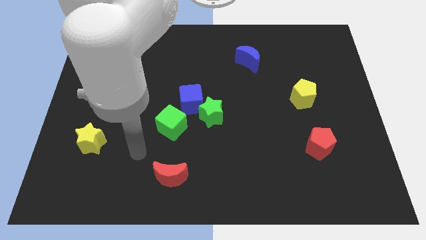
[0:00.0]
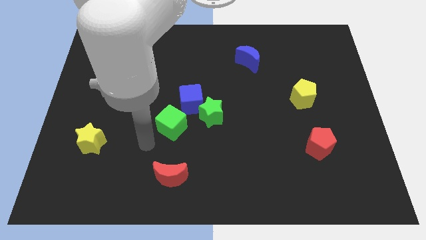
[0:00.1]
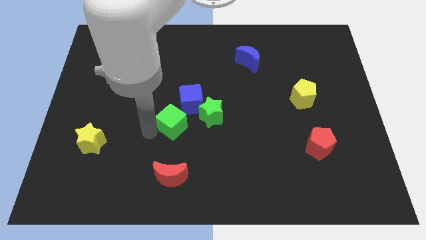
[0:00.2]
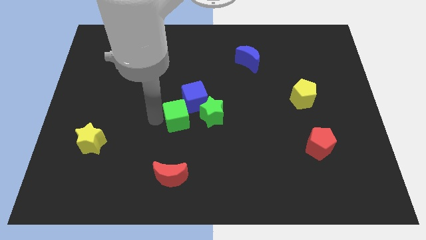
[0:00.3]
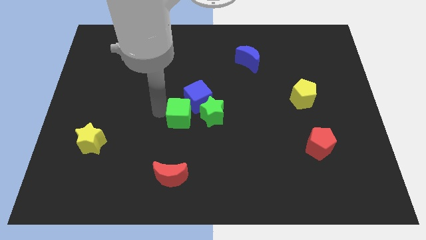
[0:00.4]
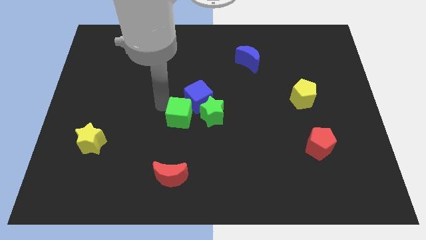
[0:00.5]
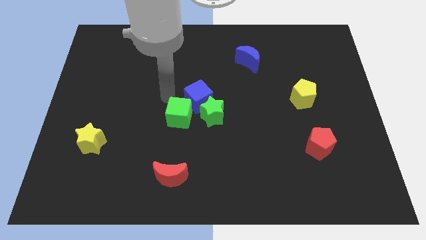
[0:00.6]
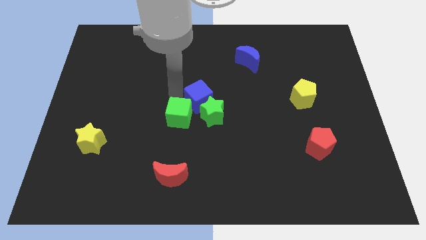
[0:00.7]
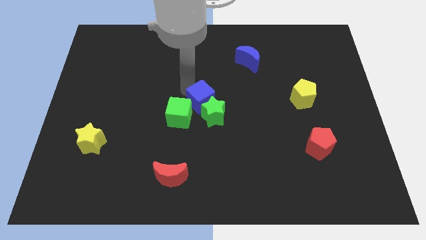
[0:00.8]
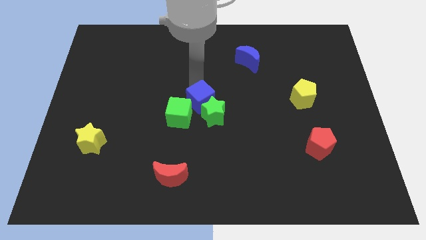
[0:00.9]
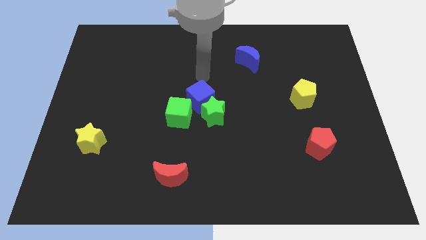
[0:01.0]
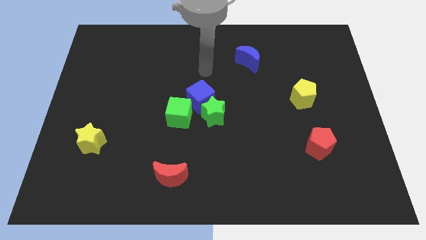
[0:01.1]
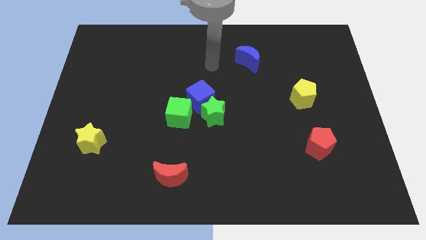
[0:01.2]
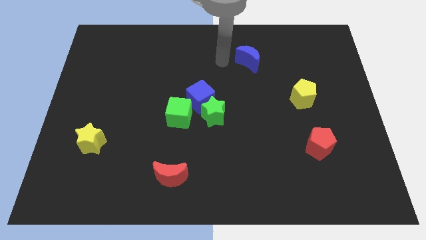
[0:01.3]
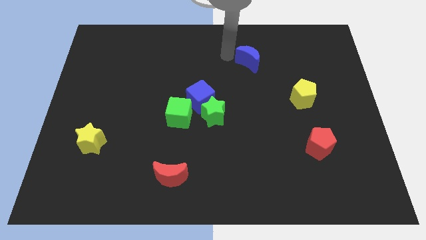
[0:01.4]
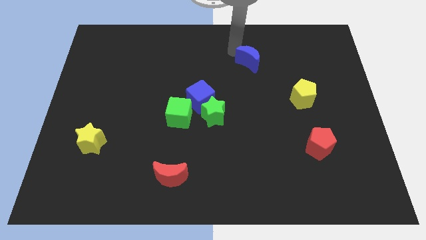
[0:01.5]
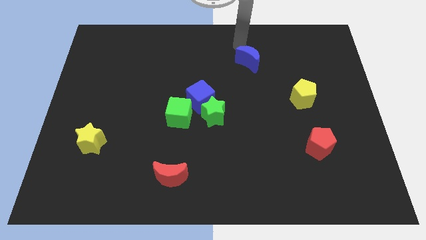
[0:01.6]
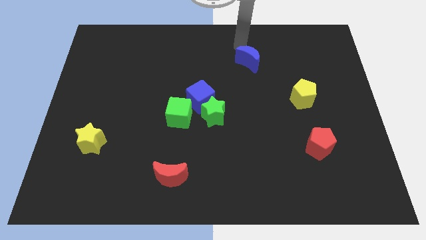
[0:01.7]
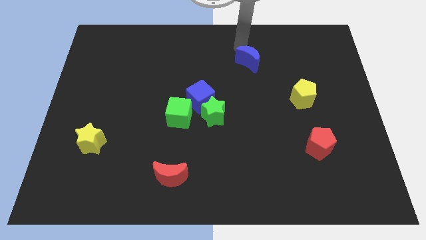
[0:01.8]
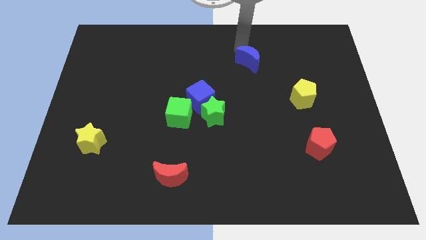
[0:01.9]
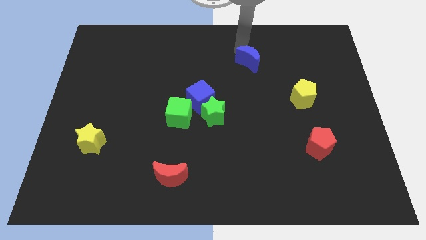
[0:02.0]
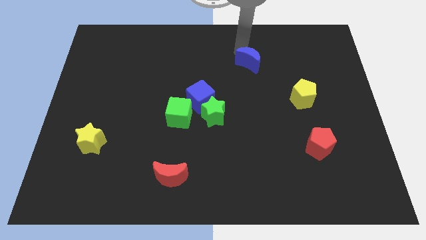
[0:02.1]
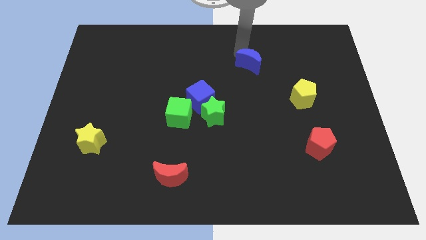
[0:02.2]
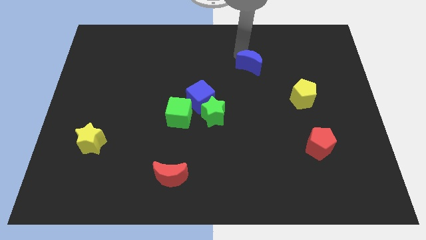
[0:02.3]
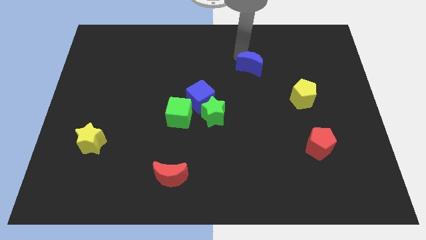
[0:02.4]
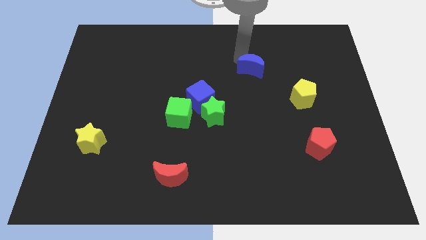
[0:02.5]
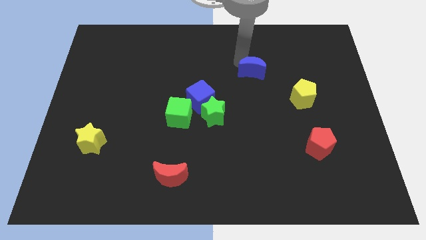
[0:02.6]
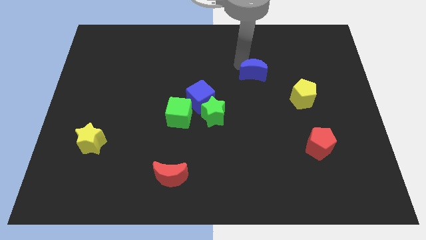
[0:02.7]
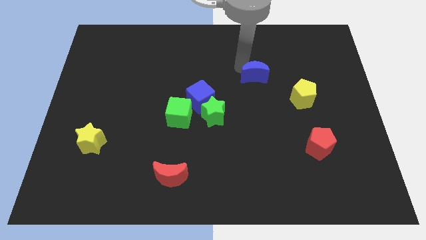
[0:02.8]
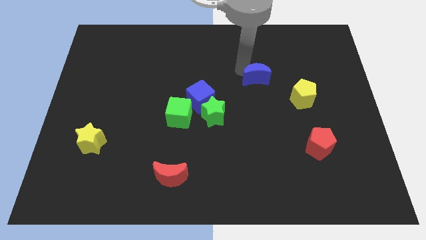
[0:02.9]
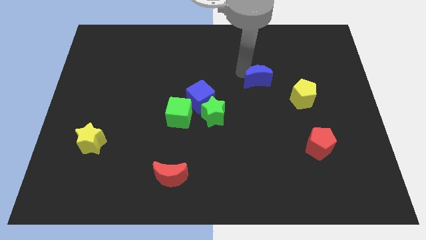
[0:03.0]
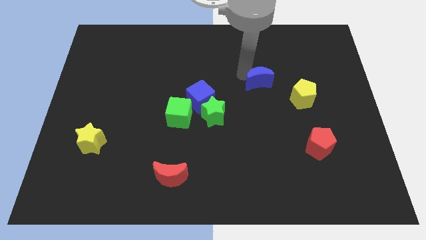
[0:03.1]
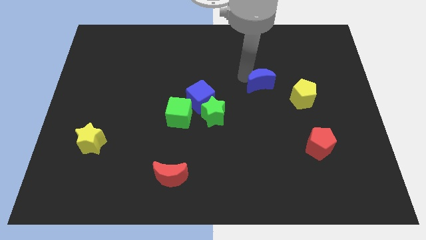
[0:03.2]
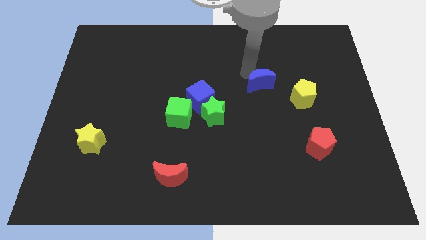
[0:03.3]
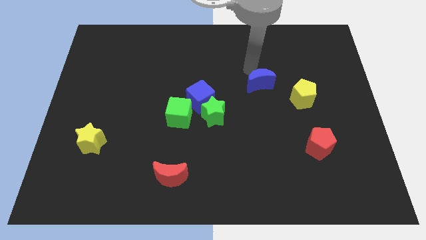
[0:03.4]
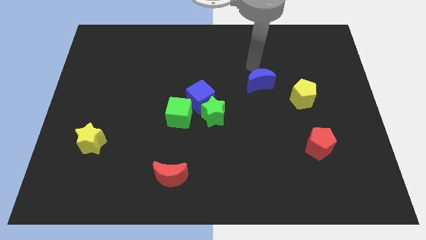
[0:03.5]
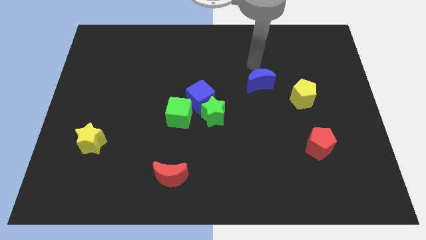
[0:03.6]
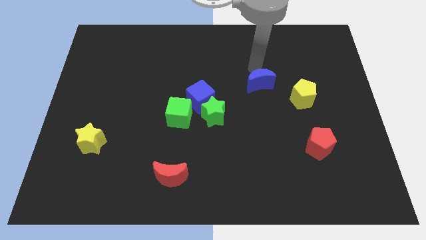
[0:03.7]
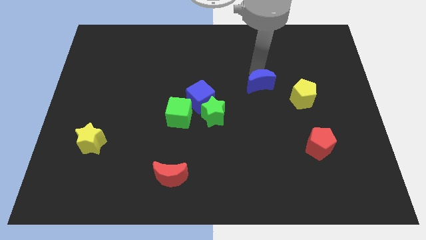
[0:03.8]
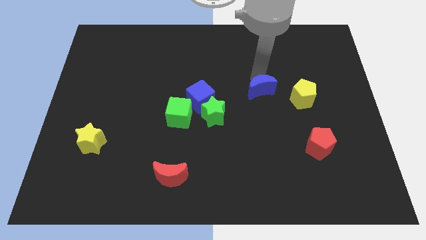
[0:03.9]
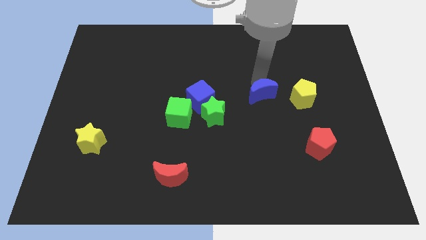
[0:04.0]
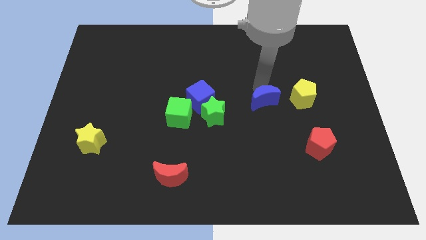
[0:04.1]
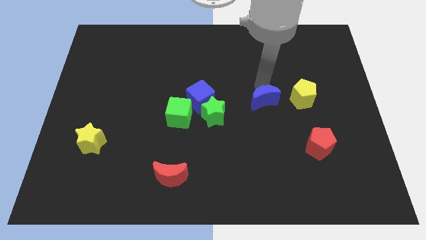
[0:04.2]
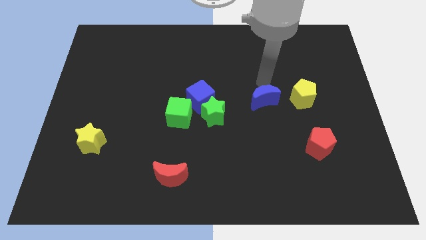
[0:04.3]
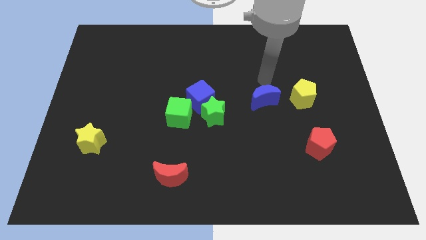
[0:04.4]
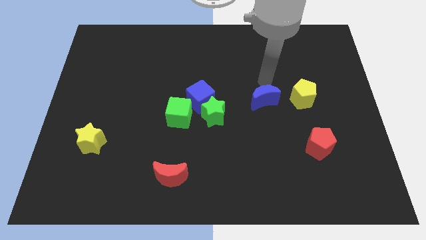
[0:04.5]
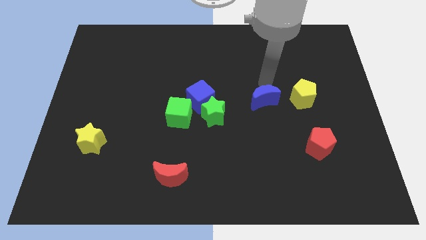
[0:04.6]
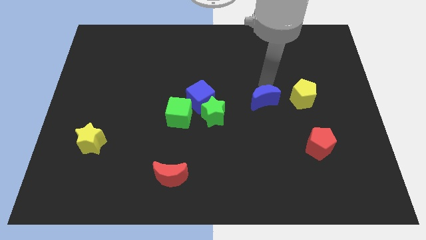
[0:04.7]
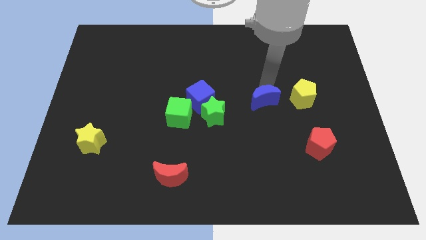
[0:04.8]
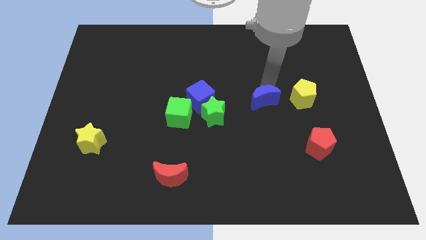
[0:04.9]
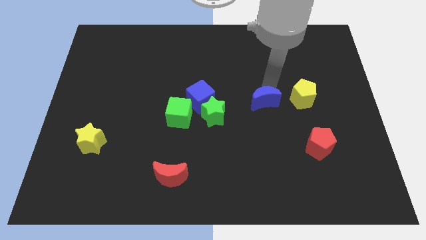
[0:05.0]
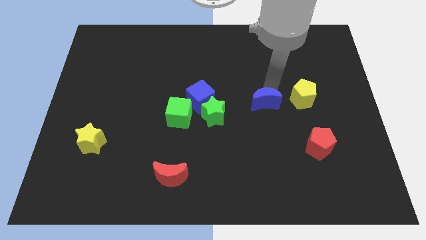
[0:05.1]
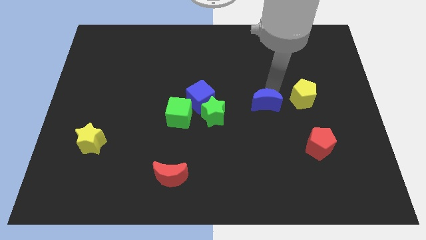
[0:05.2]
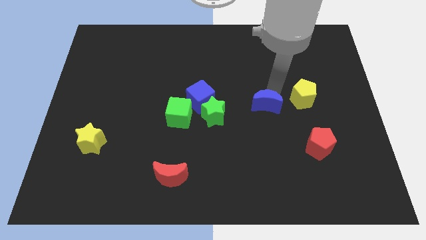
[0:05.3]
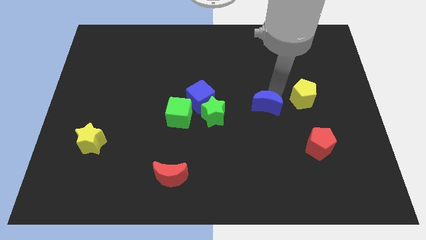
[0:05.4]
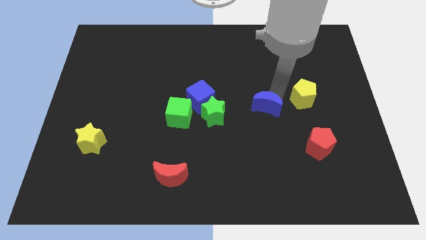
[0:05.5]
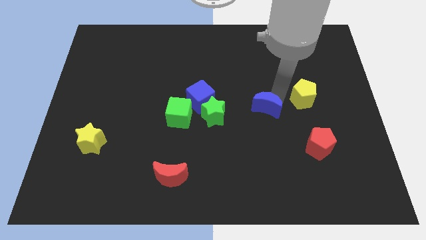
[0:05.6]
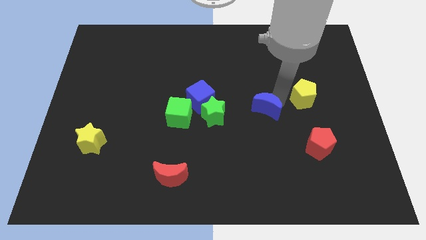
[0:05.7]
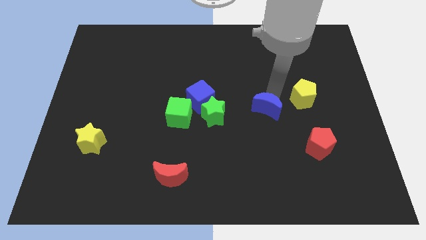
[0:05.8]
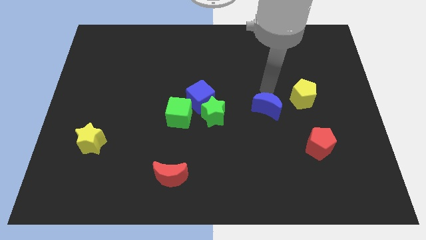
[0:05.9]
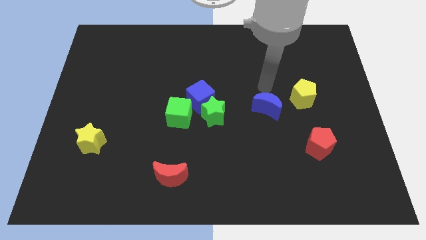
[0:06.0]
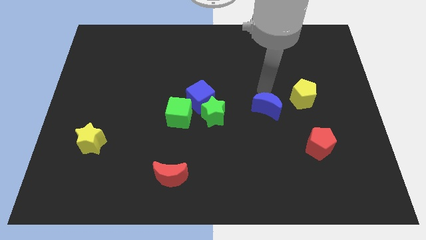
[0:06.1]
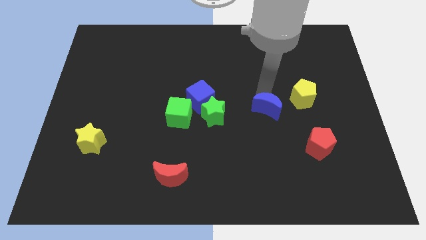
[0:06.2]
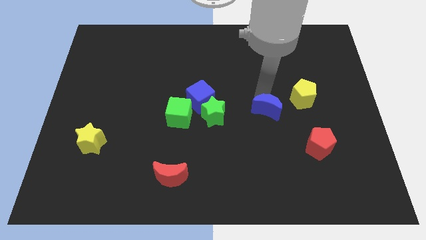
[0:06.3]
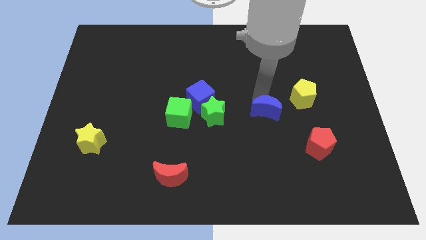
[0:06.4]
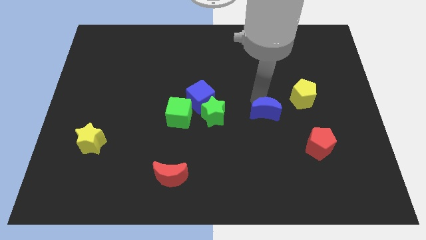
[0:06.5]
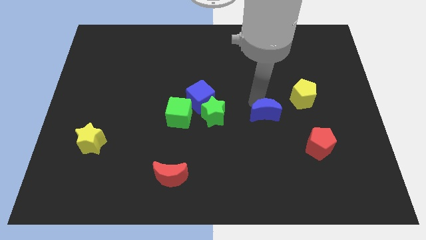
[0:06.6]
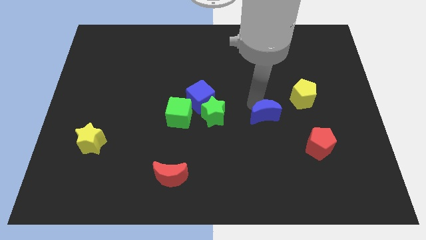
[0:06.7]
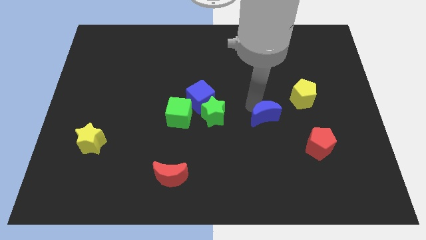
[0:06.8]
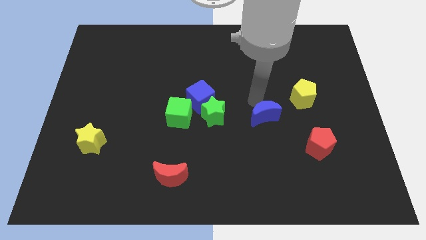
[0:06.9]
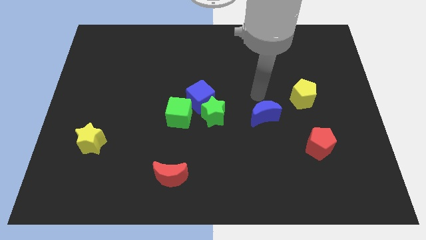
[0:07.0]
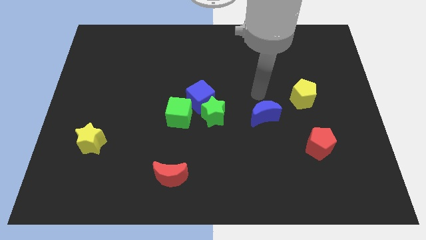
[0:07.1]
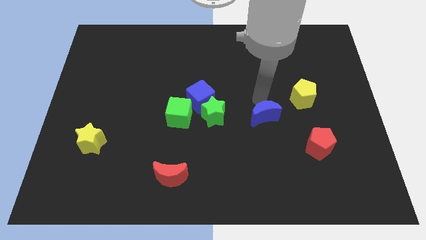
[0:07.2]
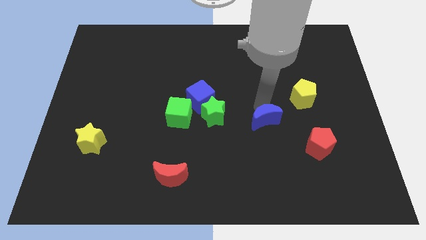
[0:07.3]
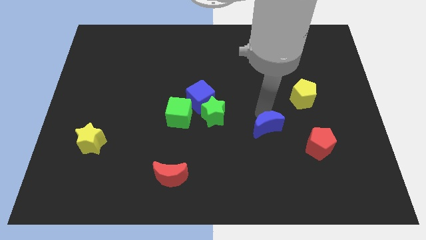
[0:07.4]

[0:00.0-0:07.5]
move the blue moon to the left of the red pentagon
